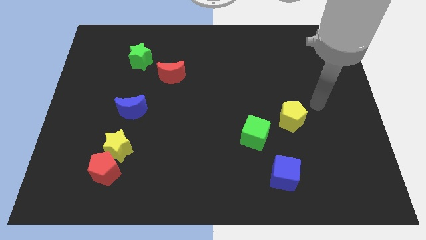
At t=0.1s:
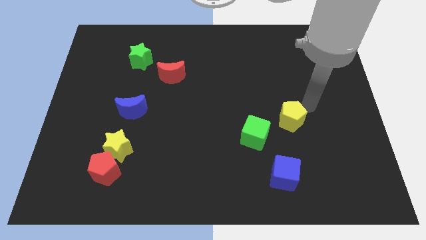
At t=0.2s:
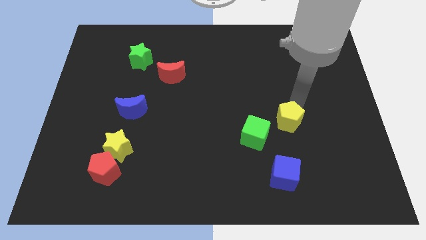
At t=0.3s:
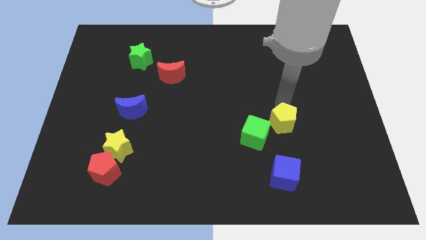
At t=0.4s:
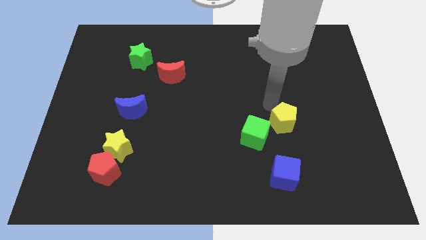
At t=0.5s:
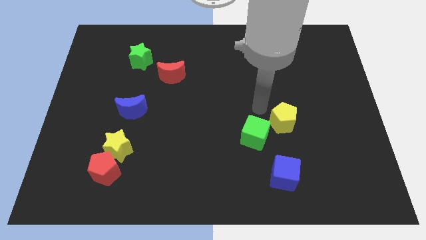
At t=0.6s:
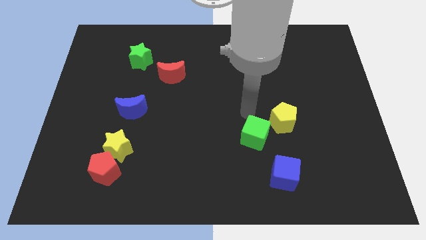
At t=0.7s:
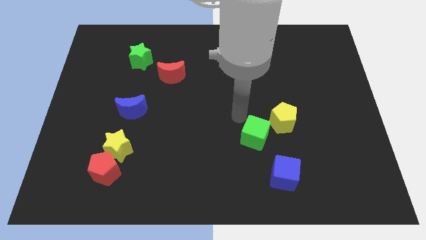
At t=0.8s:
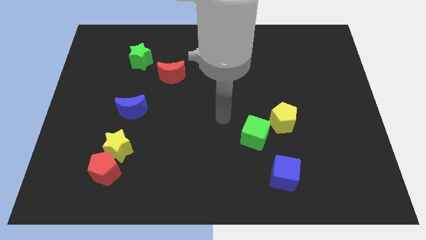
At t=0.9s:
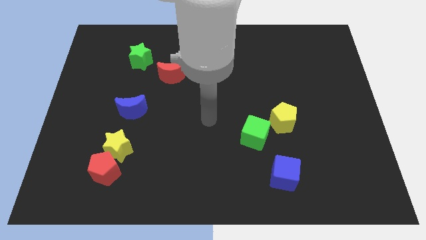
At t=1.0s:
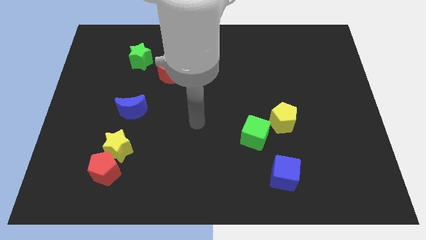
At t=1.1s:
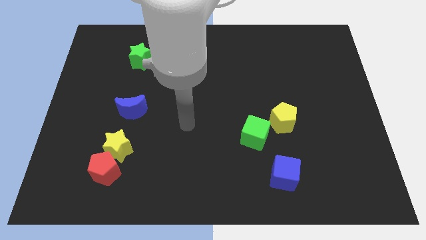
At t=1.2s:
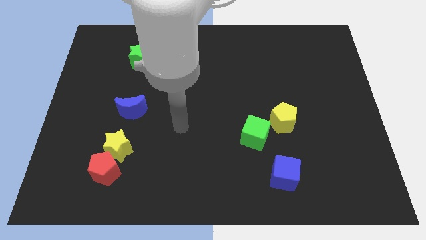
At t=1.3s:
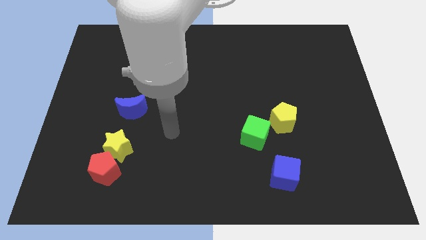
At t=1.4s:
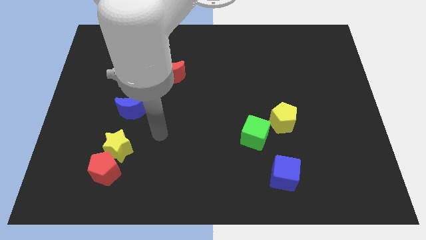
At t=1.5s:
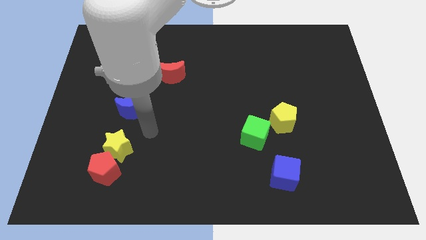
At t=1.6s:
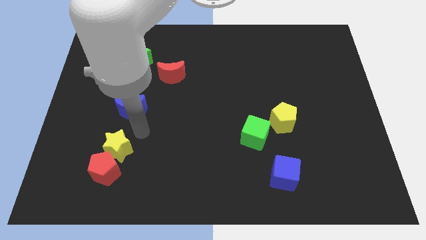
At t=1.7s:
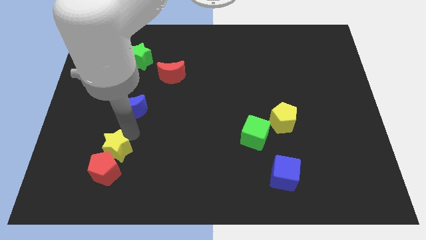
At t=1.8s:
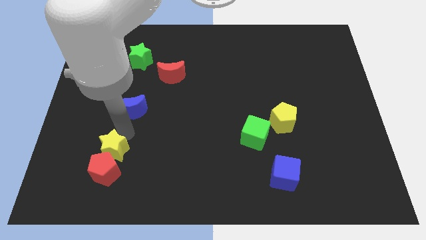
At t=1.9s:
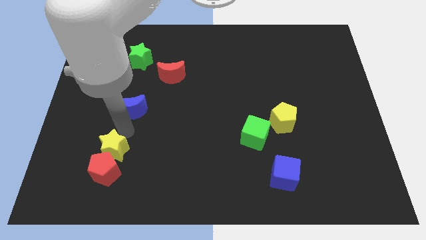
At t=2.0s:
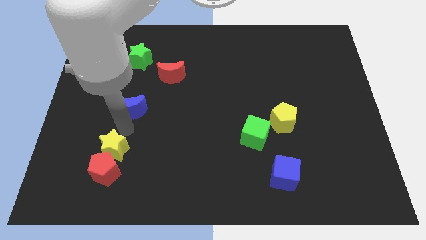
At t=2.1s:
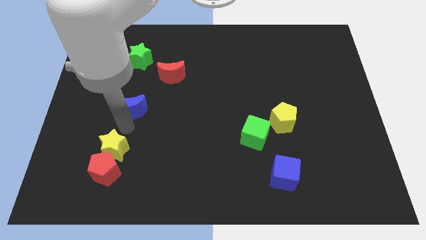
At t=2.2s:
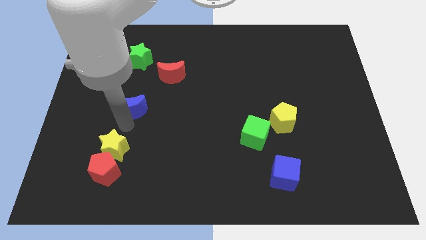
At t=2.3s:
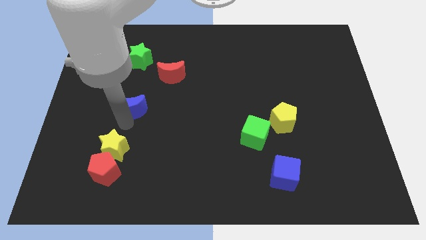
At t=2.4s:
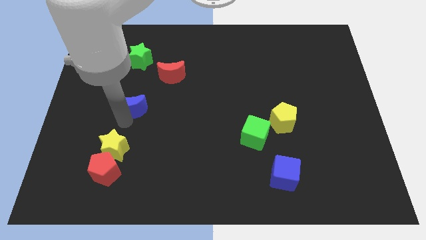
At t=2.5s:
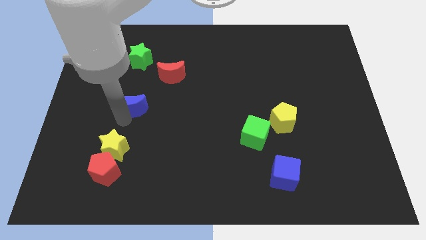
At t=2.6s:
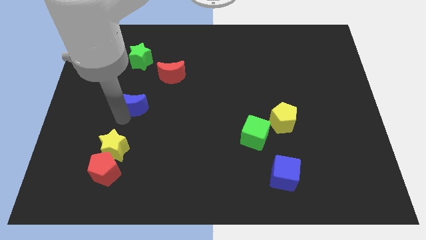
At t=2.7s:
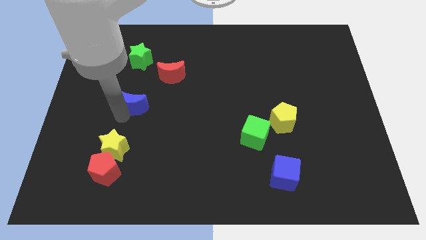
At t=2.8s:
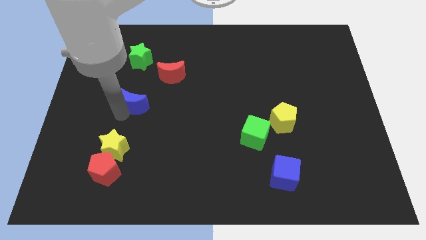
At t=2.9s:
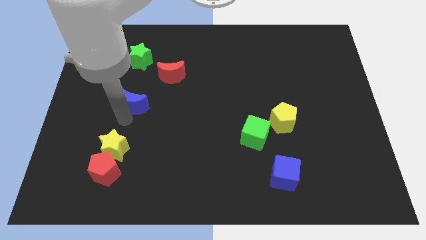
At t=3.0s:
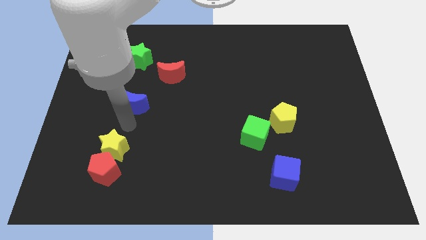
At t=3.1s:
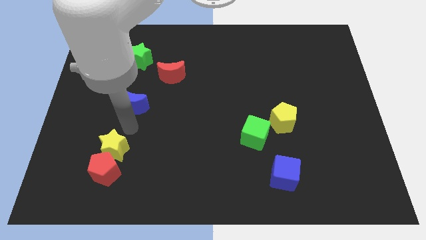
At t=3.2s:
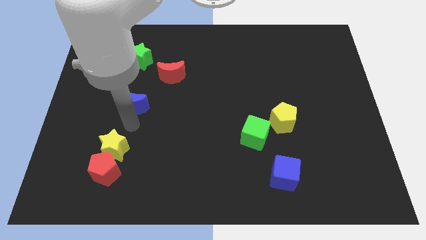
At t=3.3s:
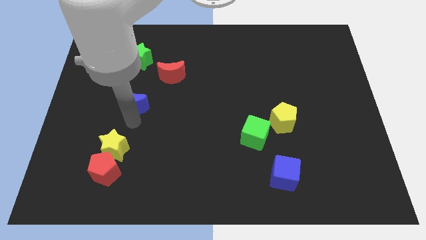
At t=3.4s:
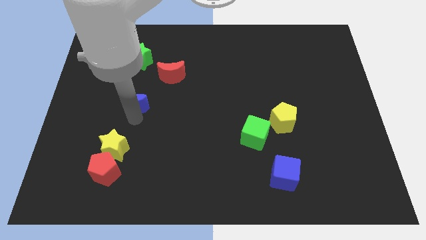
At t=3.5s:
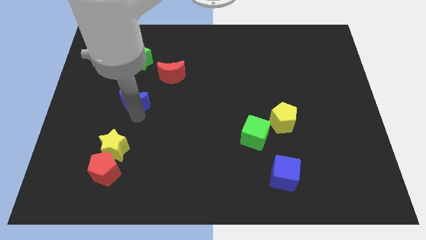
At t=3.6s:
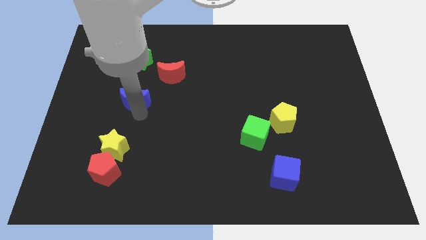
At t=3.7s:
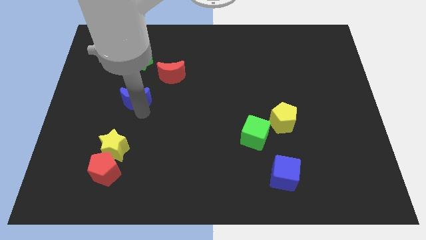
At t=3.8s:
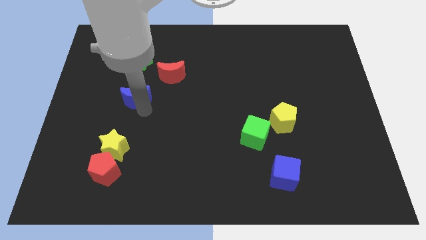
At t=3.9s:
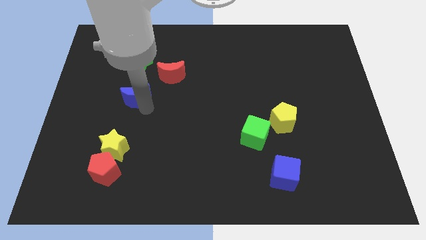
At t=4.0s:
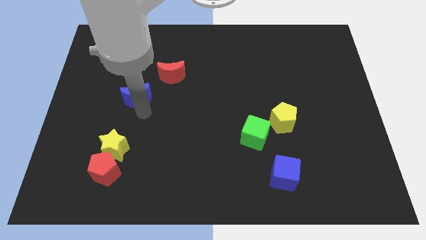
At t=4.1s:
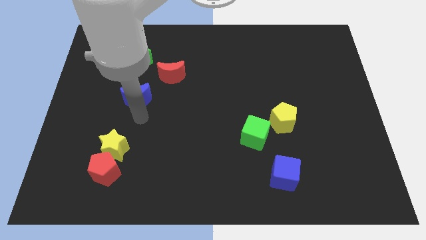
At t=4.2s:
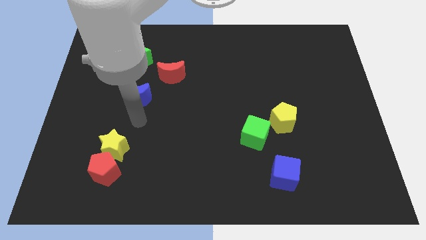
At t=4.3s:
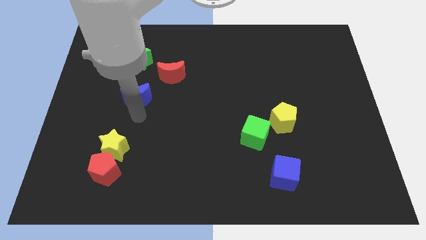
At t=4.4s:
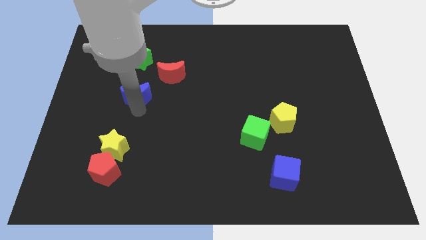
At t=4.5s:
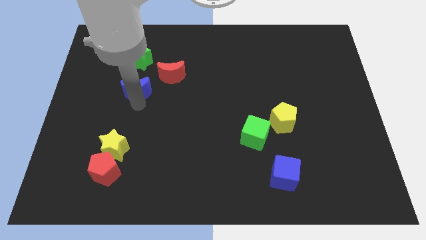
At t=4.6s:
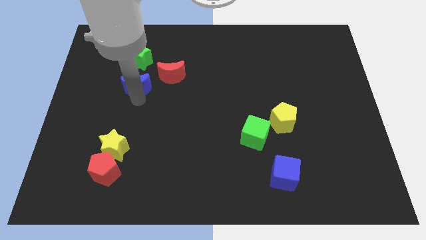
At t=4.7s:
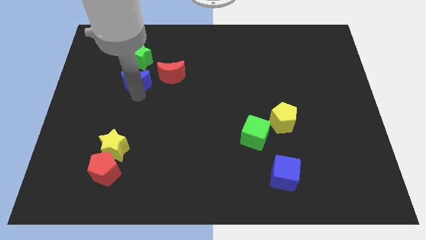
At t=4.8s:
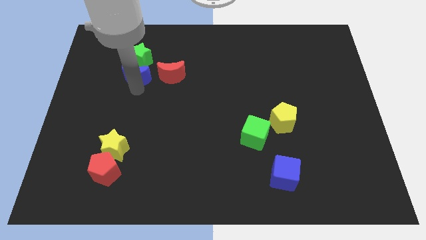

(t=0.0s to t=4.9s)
push the blue moon close to the green star

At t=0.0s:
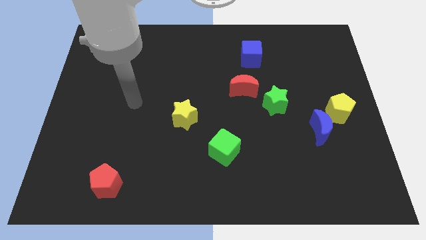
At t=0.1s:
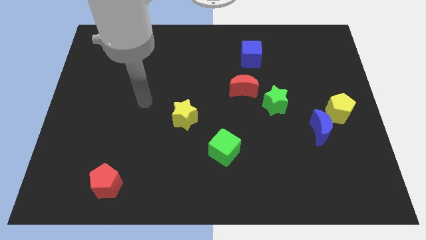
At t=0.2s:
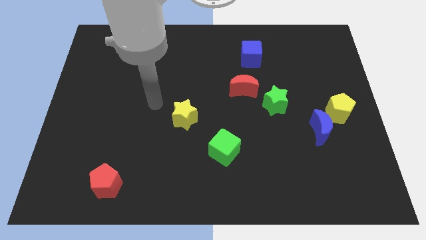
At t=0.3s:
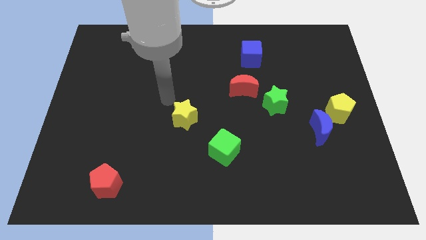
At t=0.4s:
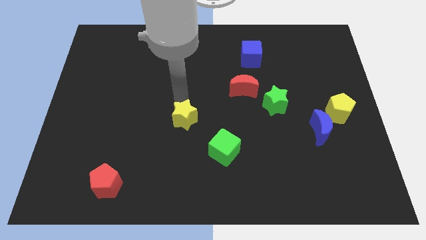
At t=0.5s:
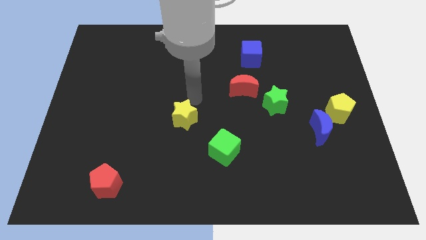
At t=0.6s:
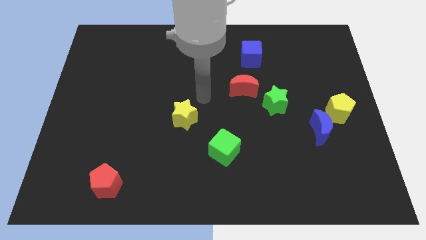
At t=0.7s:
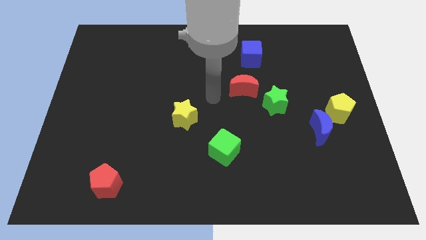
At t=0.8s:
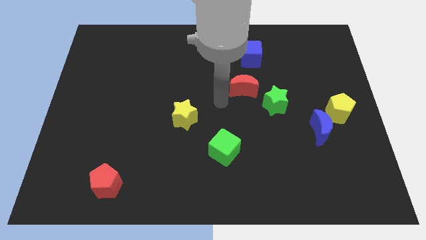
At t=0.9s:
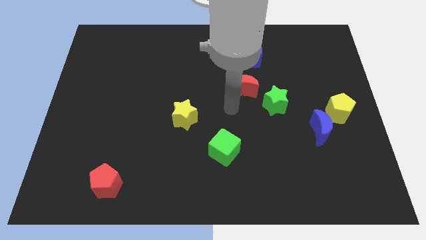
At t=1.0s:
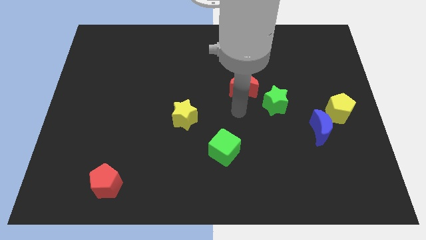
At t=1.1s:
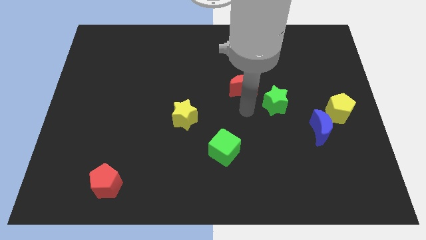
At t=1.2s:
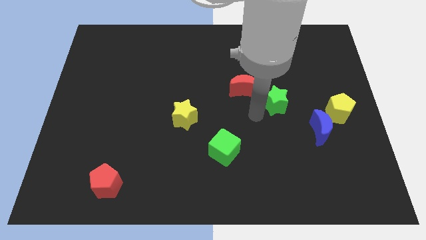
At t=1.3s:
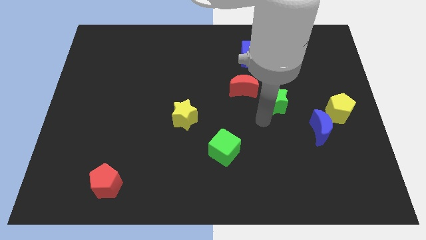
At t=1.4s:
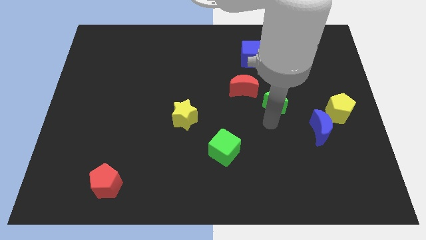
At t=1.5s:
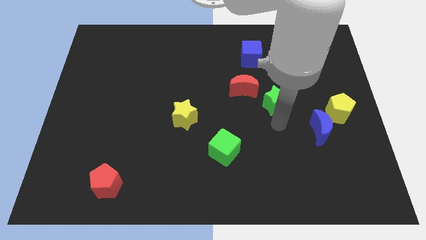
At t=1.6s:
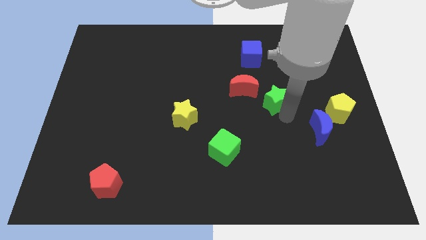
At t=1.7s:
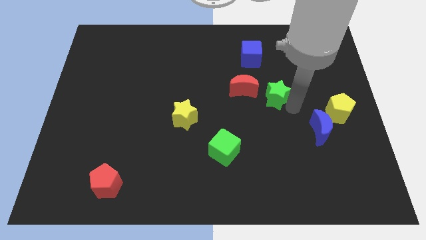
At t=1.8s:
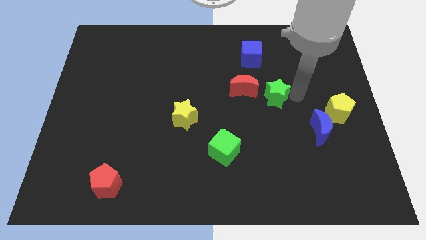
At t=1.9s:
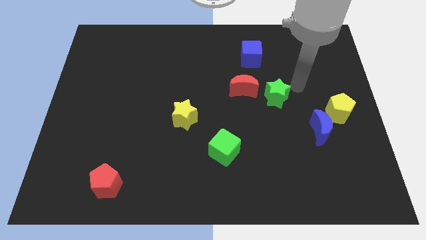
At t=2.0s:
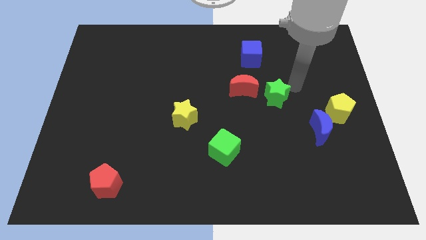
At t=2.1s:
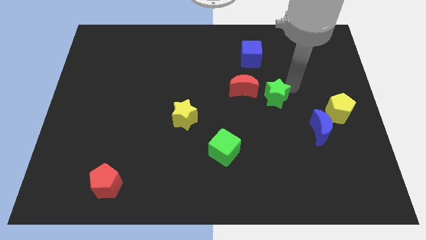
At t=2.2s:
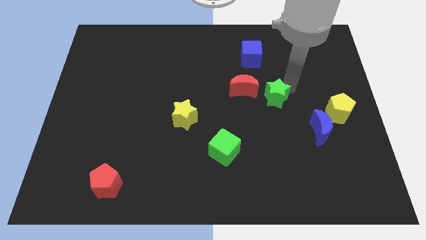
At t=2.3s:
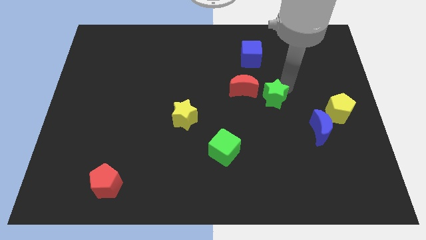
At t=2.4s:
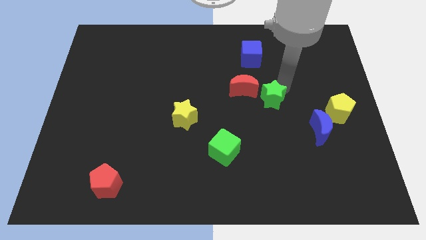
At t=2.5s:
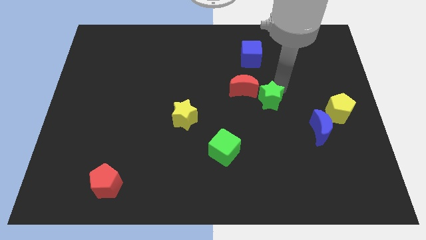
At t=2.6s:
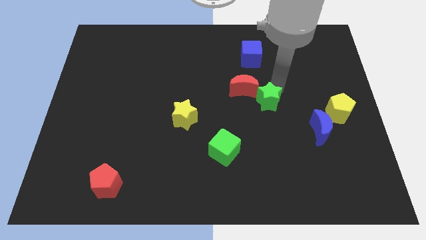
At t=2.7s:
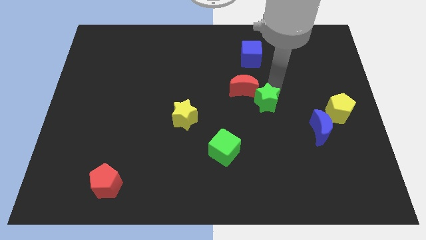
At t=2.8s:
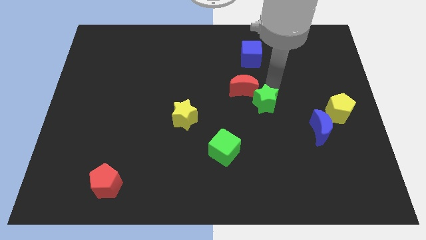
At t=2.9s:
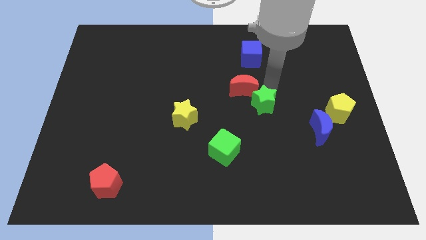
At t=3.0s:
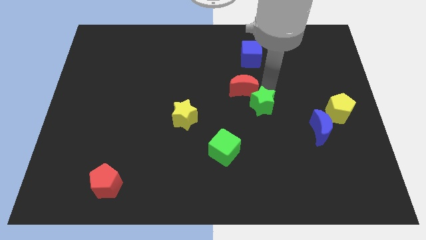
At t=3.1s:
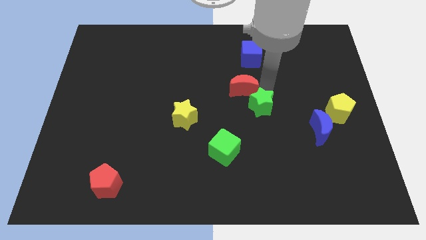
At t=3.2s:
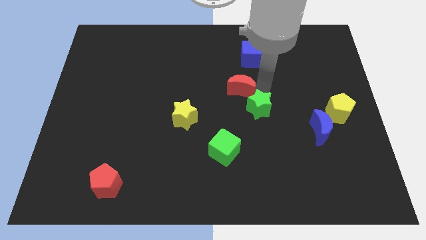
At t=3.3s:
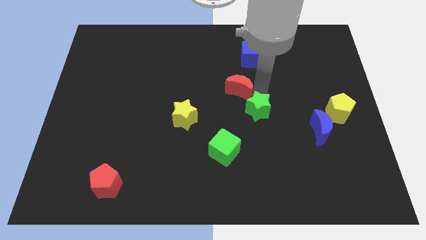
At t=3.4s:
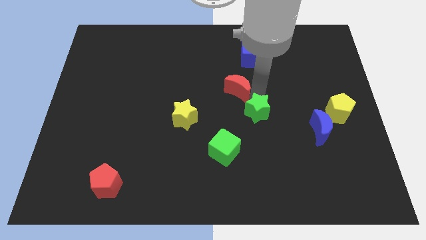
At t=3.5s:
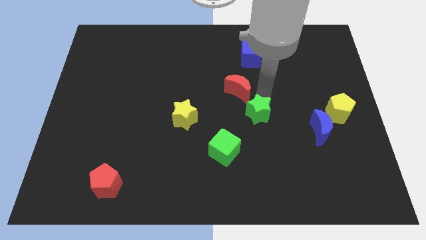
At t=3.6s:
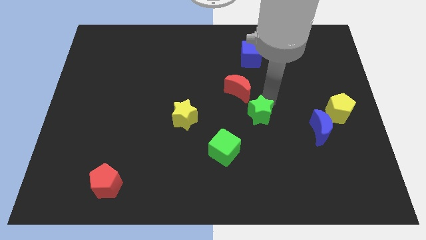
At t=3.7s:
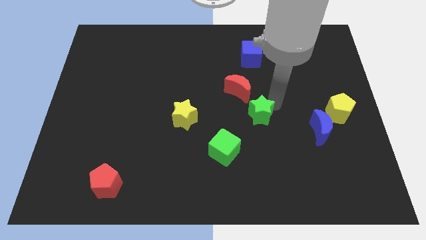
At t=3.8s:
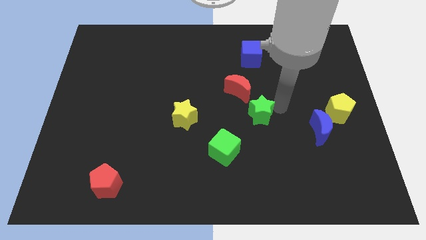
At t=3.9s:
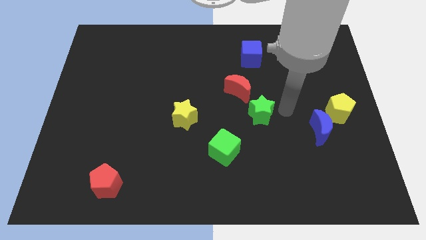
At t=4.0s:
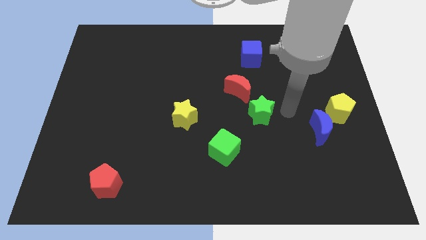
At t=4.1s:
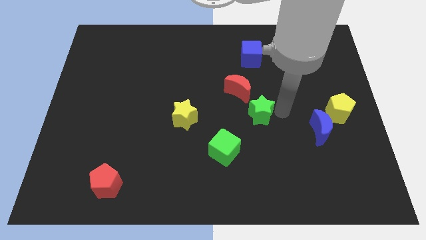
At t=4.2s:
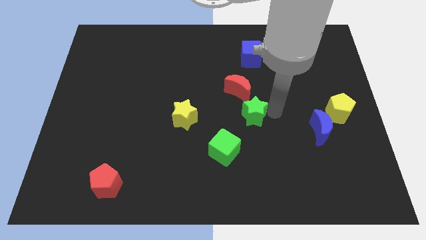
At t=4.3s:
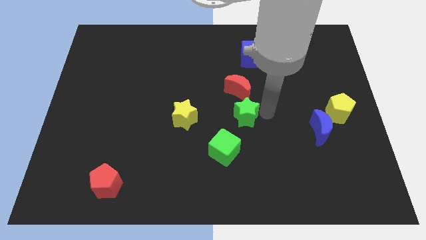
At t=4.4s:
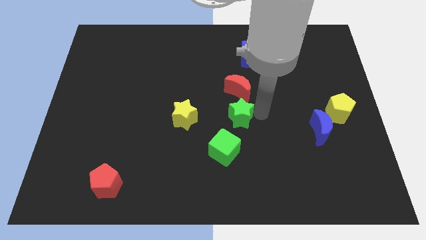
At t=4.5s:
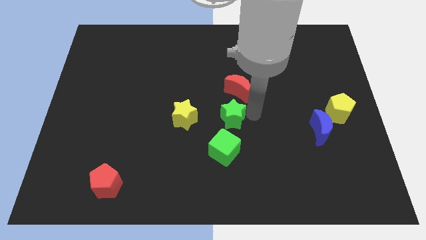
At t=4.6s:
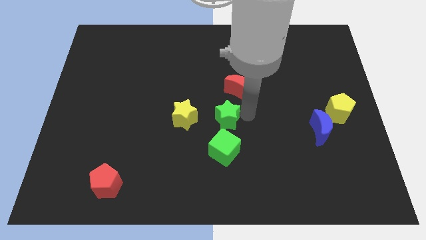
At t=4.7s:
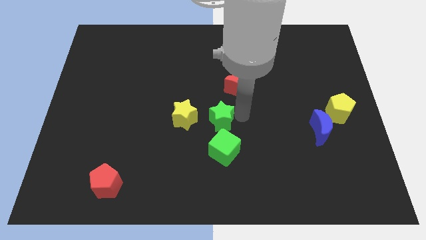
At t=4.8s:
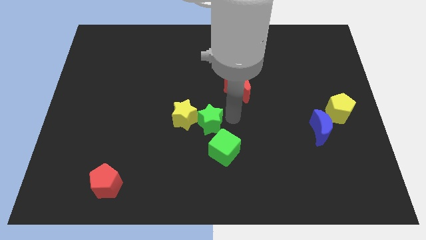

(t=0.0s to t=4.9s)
put the green star close to the yellow star
